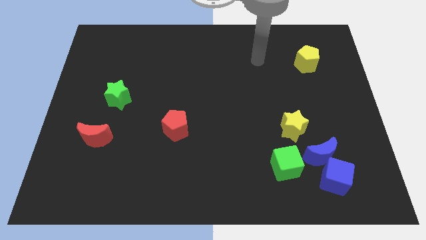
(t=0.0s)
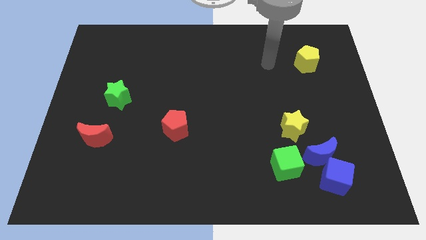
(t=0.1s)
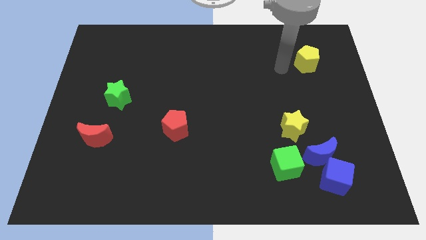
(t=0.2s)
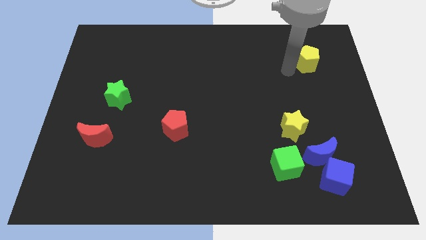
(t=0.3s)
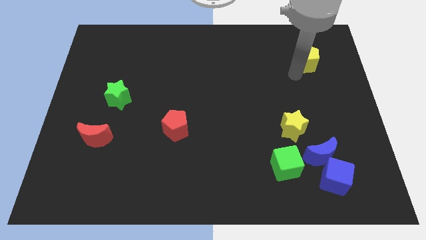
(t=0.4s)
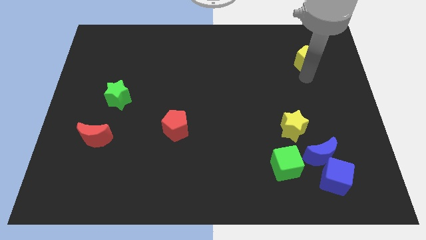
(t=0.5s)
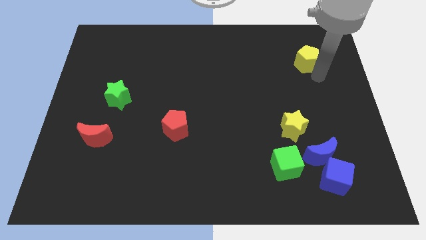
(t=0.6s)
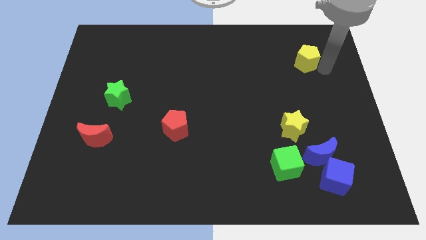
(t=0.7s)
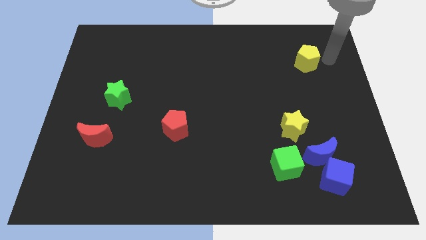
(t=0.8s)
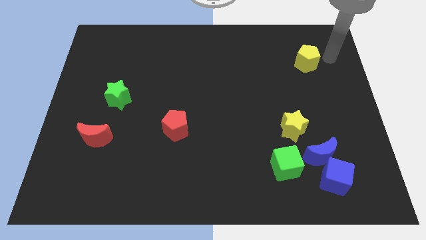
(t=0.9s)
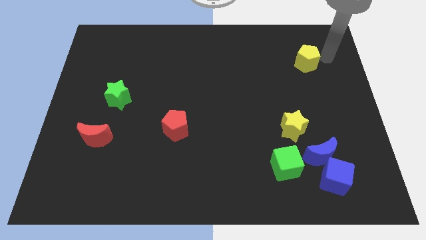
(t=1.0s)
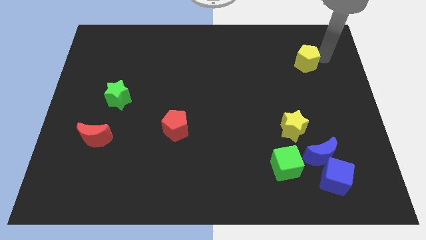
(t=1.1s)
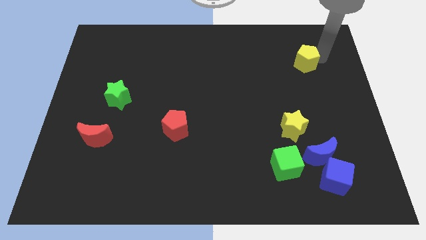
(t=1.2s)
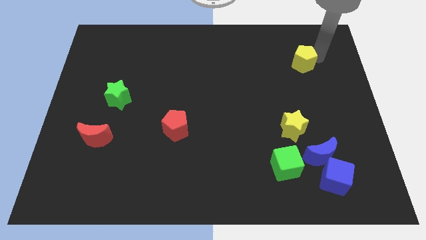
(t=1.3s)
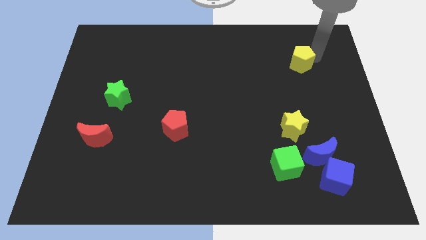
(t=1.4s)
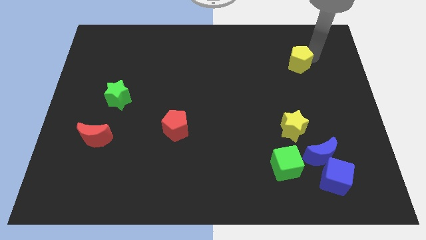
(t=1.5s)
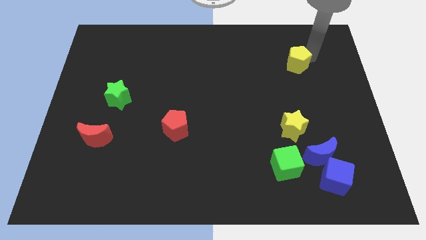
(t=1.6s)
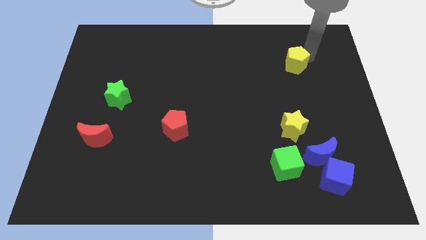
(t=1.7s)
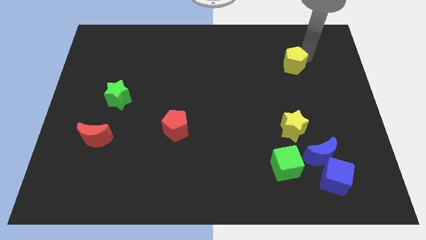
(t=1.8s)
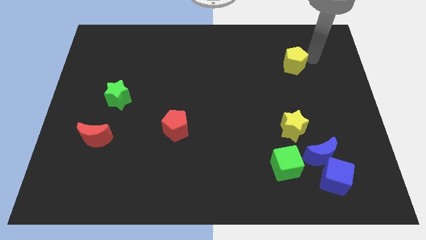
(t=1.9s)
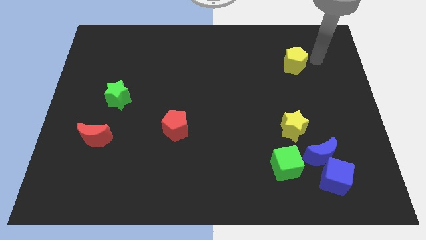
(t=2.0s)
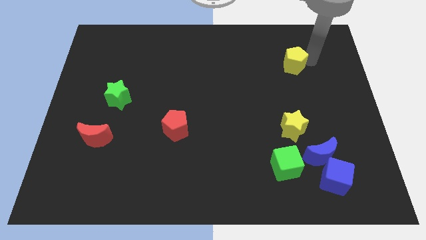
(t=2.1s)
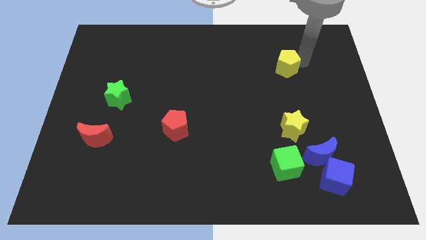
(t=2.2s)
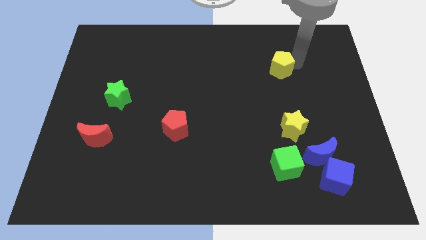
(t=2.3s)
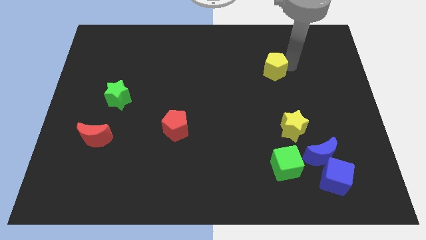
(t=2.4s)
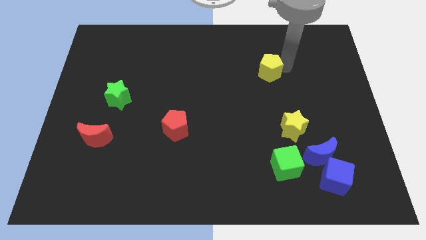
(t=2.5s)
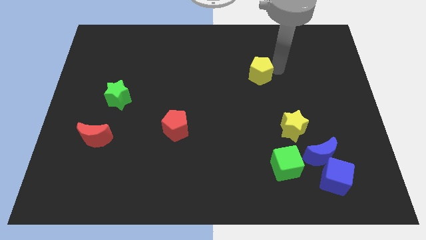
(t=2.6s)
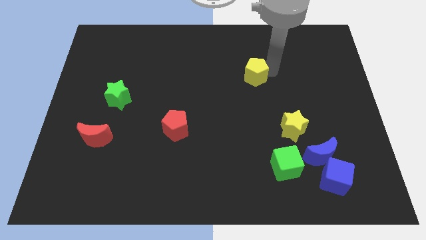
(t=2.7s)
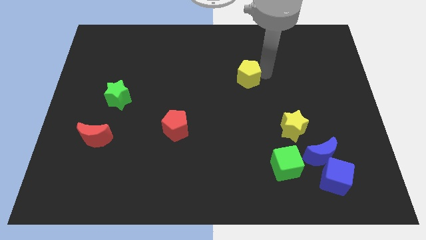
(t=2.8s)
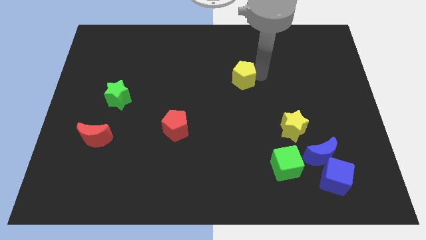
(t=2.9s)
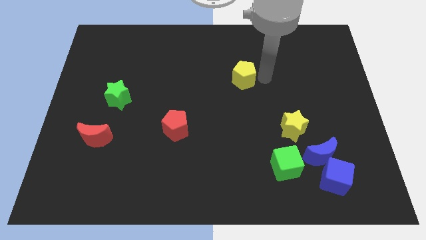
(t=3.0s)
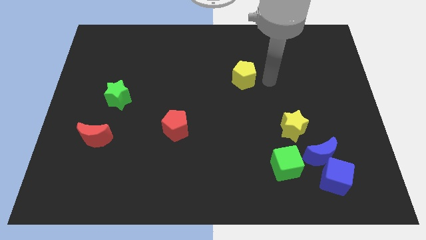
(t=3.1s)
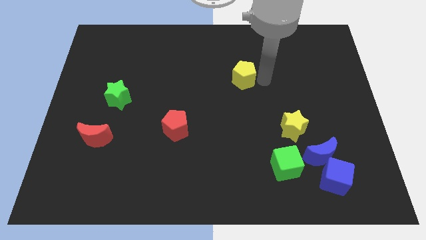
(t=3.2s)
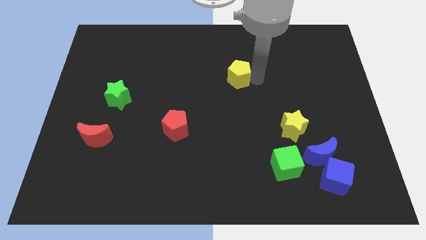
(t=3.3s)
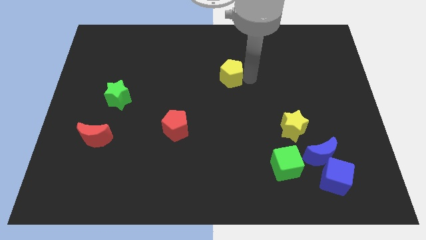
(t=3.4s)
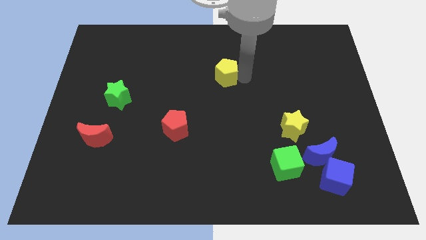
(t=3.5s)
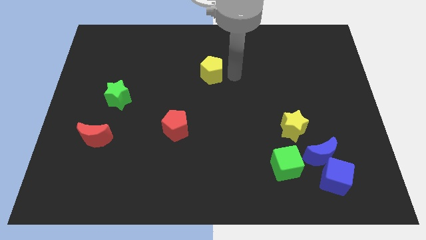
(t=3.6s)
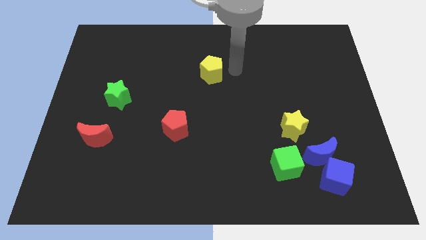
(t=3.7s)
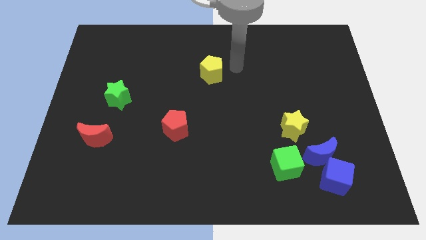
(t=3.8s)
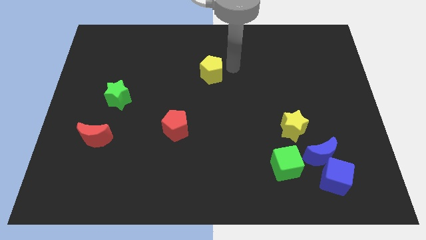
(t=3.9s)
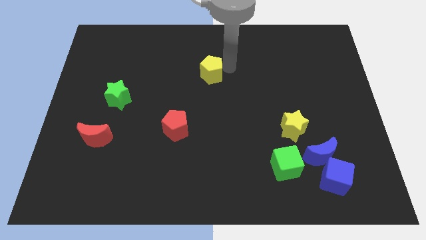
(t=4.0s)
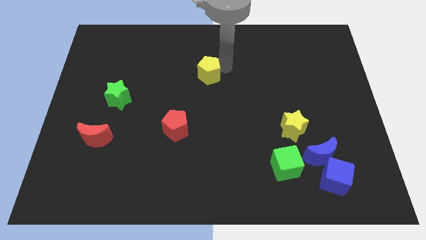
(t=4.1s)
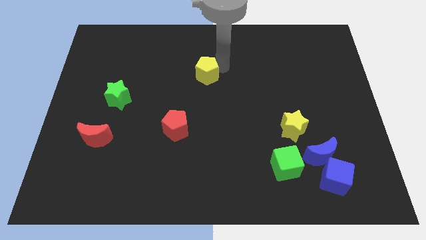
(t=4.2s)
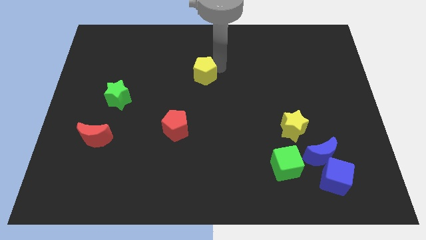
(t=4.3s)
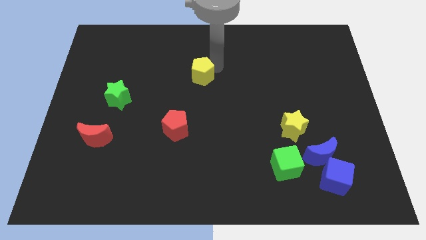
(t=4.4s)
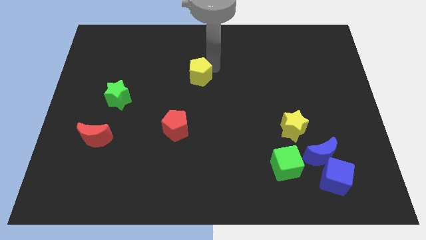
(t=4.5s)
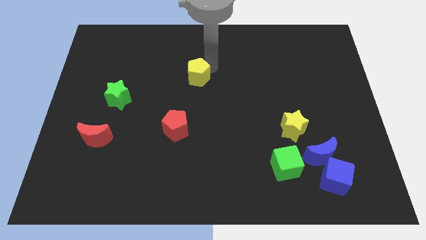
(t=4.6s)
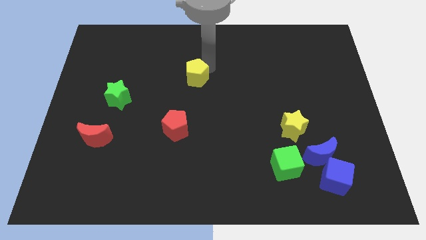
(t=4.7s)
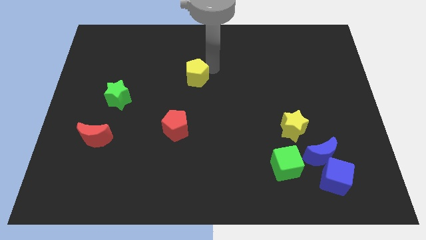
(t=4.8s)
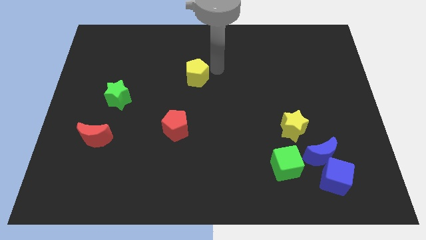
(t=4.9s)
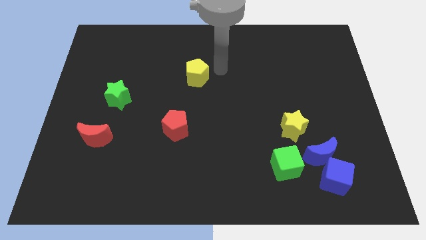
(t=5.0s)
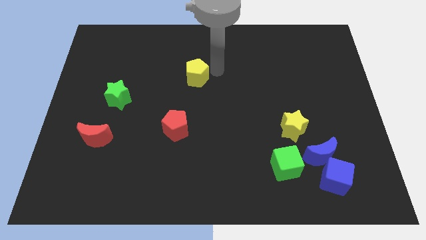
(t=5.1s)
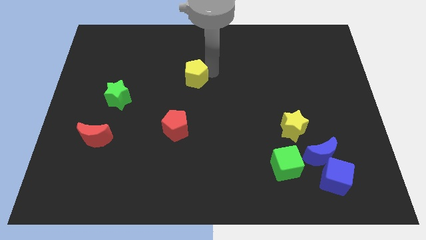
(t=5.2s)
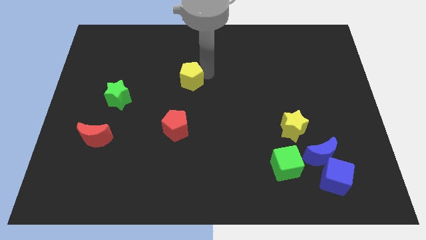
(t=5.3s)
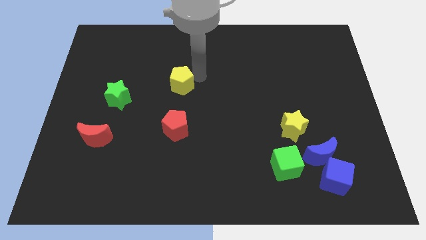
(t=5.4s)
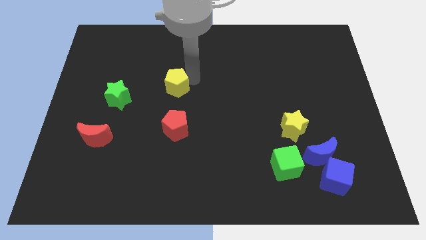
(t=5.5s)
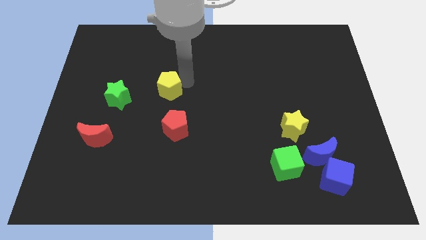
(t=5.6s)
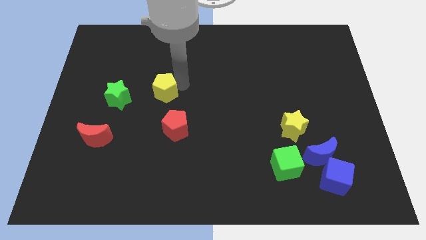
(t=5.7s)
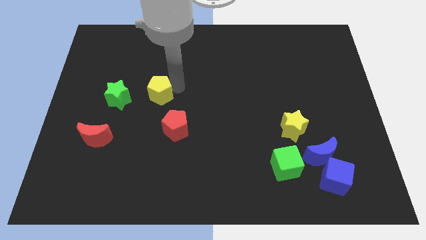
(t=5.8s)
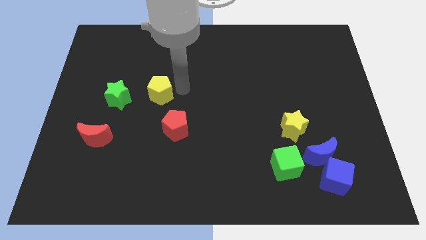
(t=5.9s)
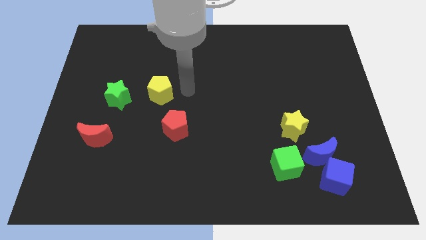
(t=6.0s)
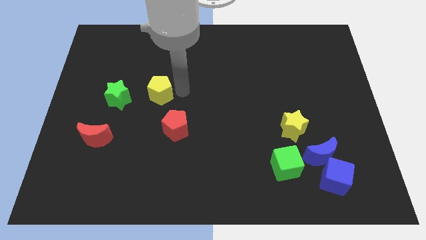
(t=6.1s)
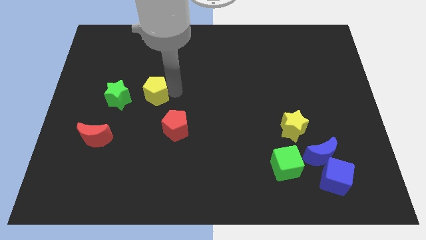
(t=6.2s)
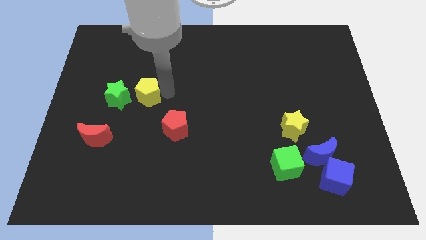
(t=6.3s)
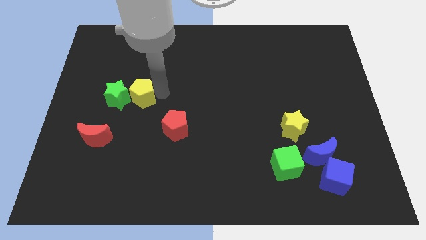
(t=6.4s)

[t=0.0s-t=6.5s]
push the yellow pentagon close to the green star
